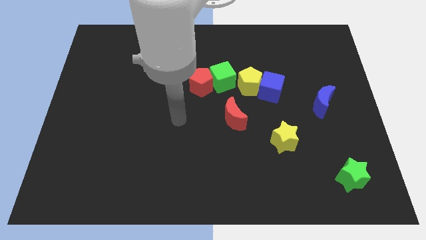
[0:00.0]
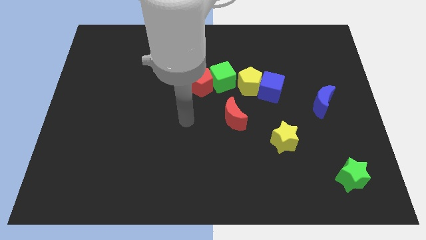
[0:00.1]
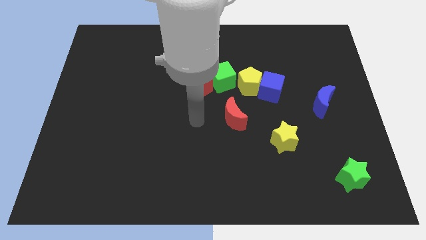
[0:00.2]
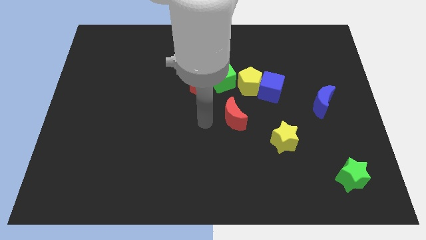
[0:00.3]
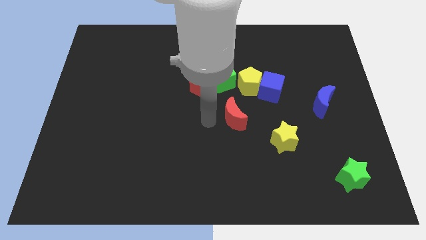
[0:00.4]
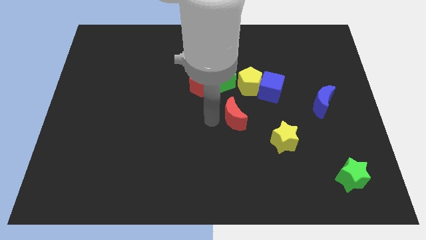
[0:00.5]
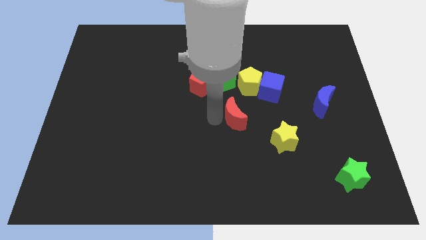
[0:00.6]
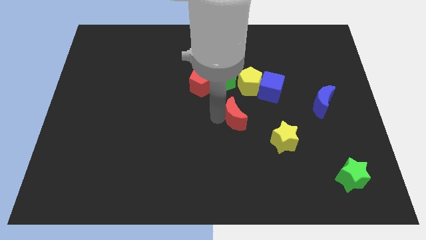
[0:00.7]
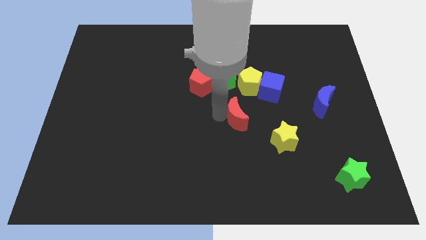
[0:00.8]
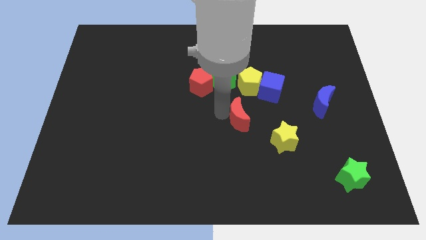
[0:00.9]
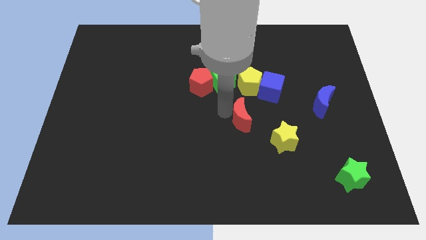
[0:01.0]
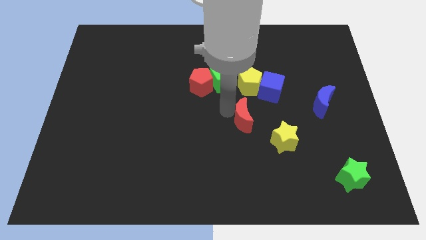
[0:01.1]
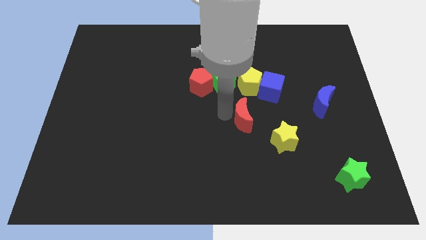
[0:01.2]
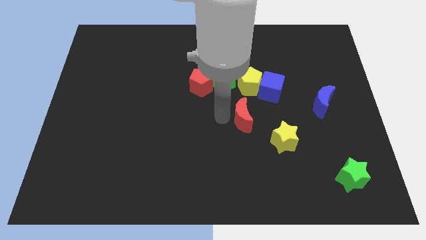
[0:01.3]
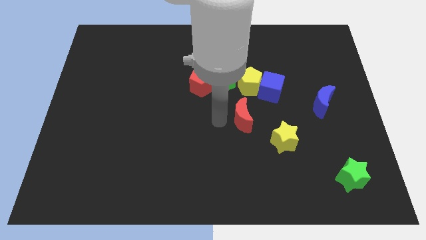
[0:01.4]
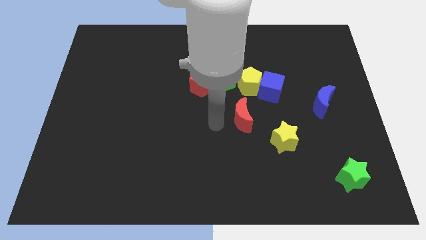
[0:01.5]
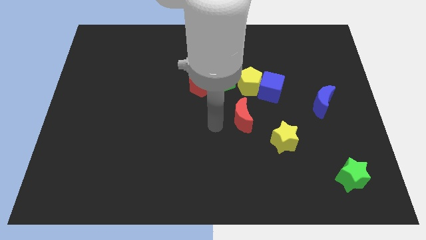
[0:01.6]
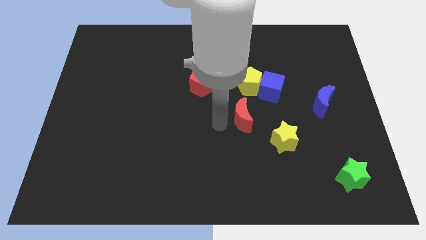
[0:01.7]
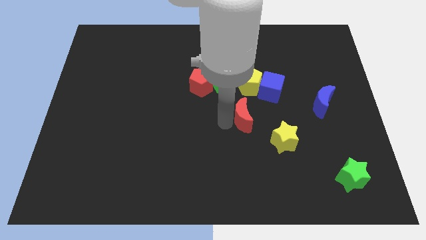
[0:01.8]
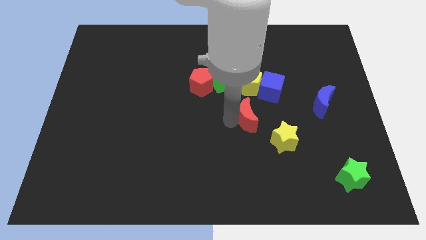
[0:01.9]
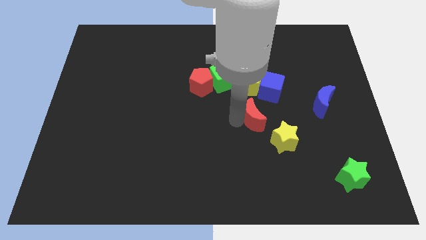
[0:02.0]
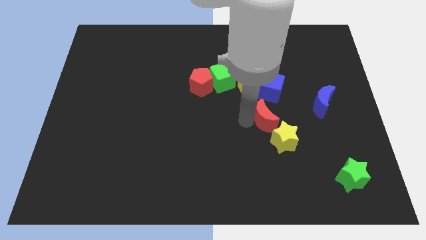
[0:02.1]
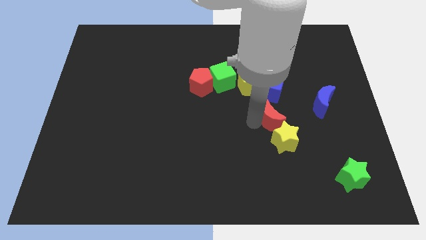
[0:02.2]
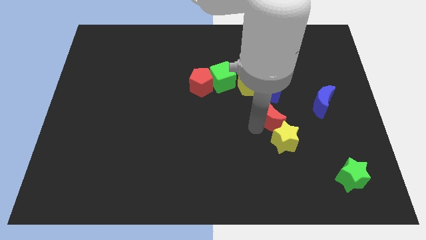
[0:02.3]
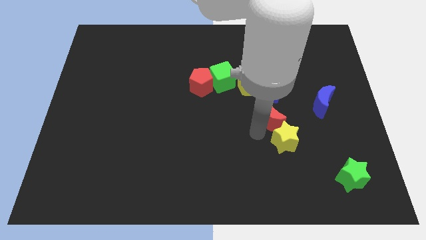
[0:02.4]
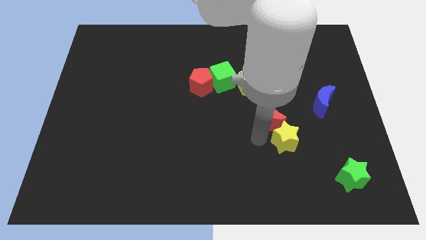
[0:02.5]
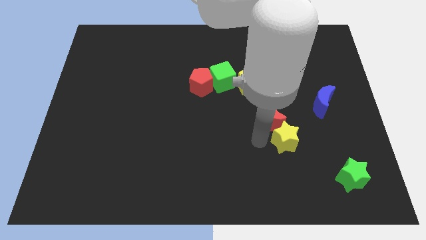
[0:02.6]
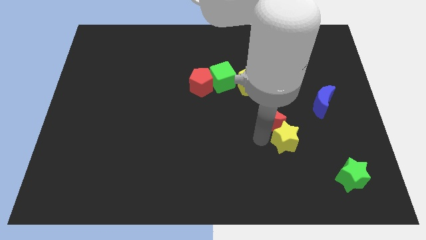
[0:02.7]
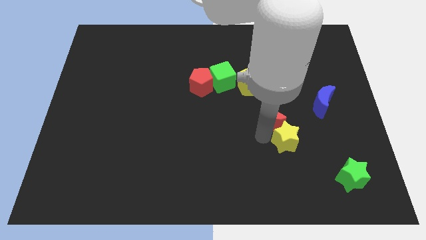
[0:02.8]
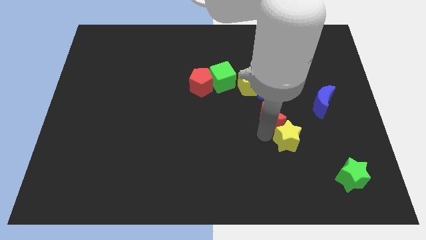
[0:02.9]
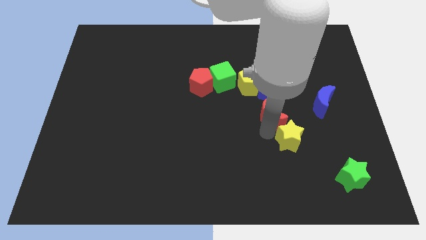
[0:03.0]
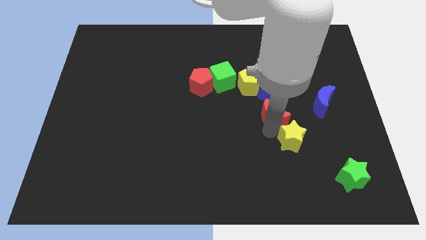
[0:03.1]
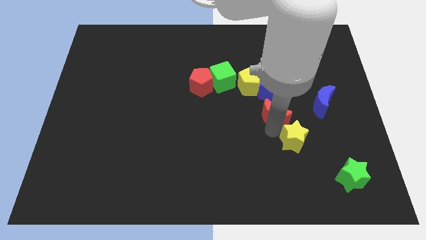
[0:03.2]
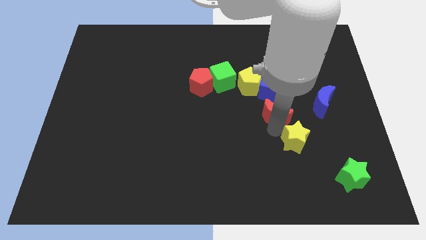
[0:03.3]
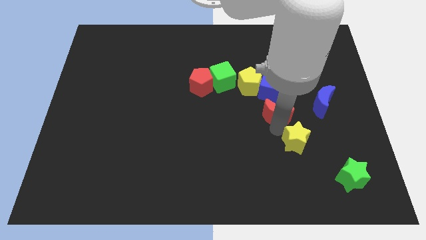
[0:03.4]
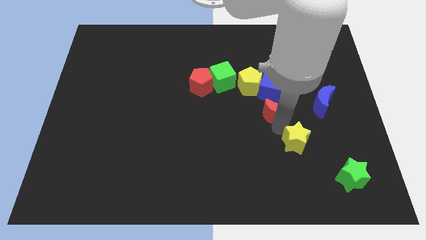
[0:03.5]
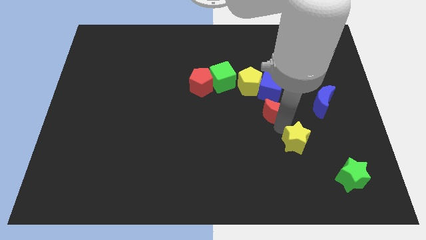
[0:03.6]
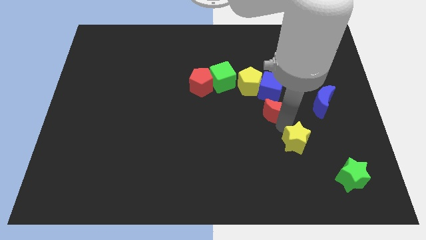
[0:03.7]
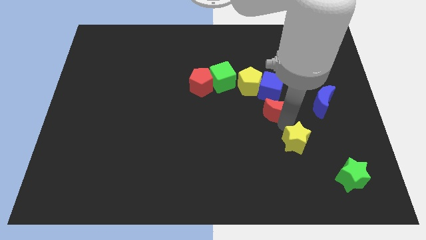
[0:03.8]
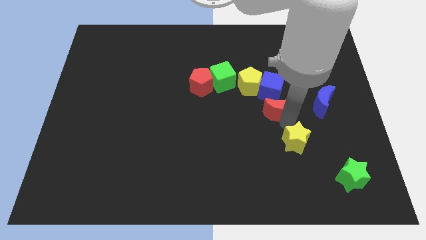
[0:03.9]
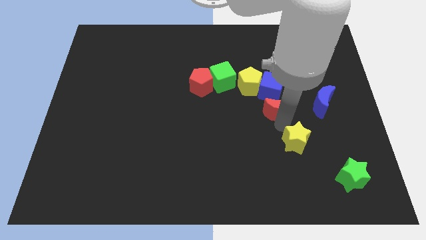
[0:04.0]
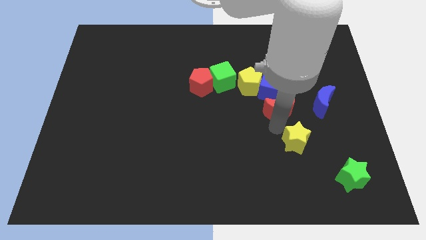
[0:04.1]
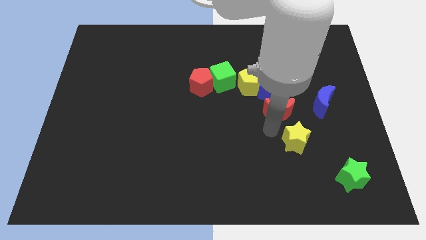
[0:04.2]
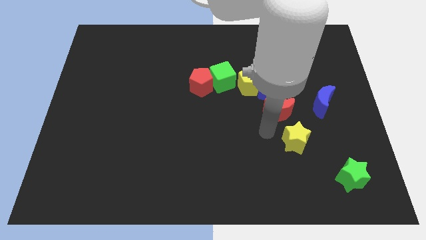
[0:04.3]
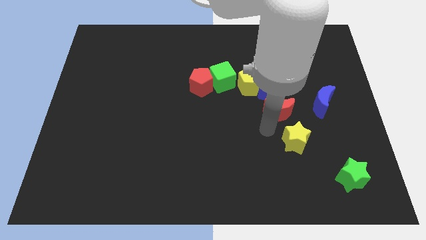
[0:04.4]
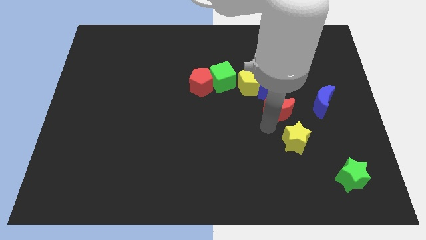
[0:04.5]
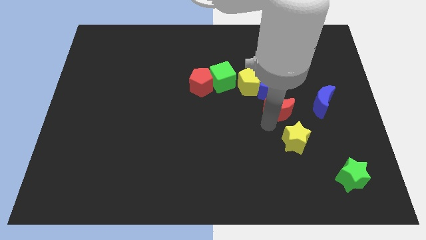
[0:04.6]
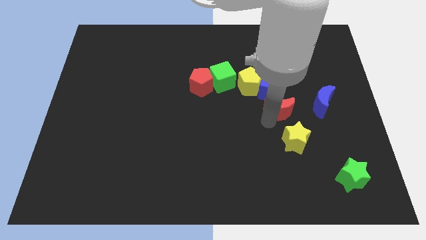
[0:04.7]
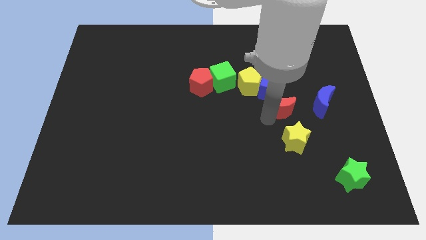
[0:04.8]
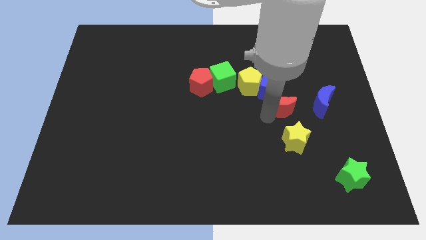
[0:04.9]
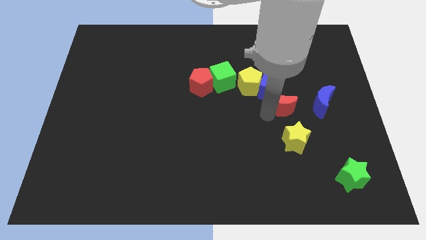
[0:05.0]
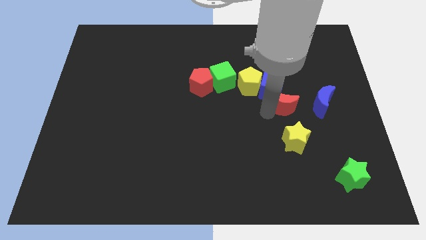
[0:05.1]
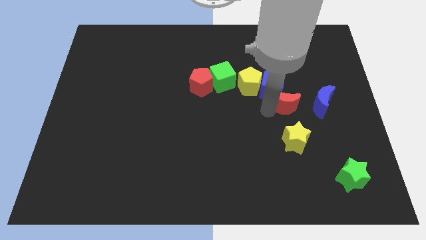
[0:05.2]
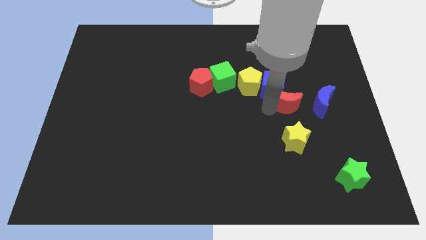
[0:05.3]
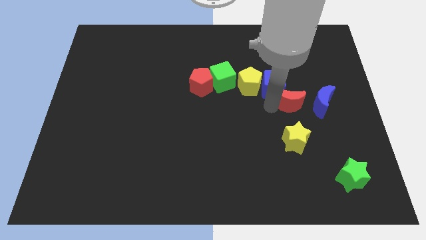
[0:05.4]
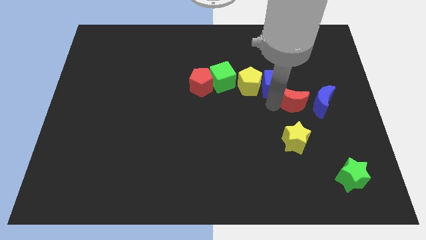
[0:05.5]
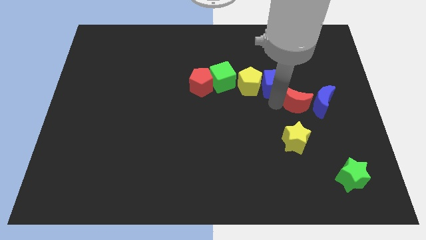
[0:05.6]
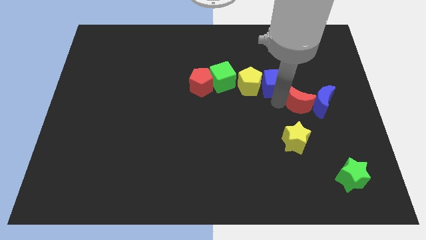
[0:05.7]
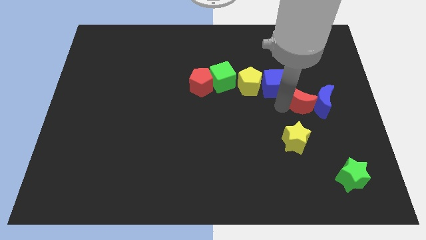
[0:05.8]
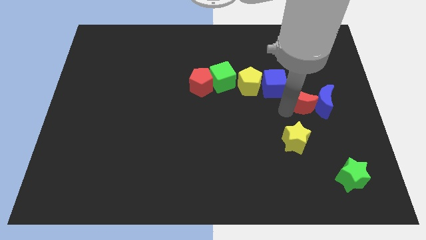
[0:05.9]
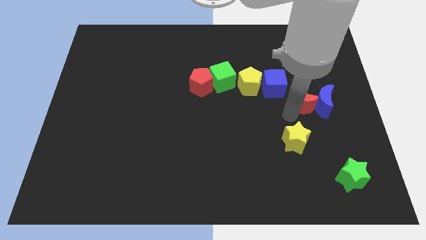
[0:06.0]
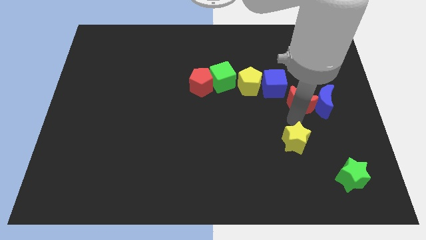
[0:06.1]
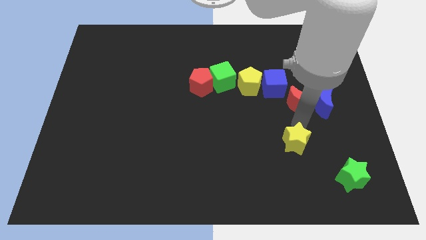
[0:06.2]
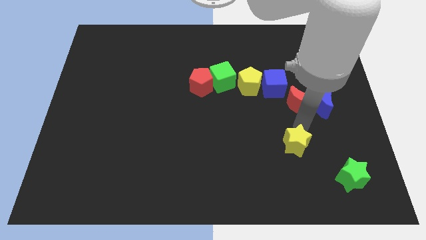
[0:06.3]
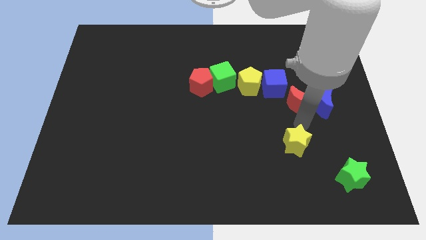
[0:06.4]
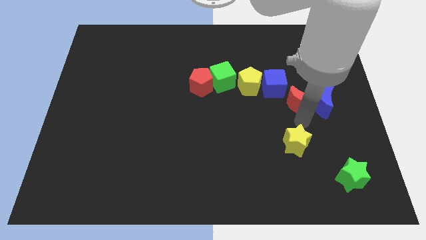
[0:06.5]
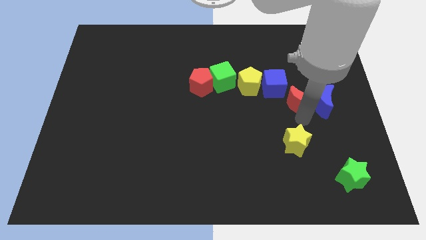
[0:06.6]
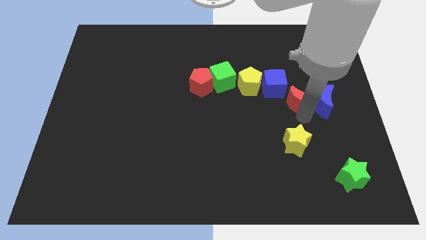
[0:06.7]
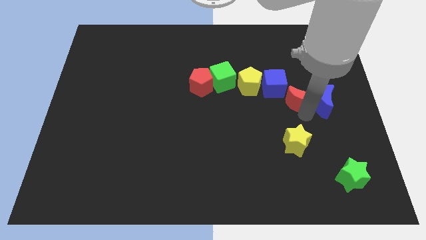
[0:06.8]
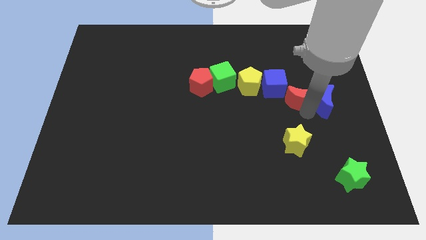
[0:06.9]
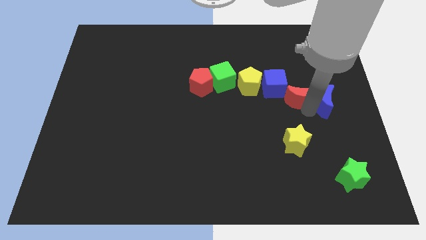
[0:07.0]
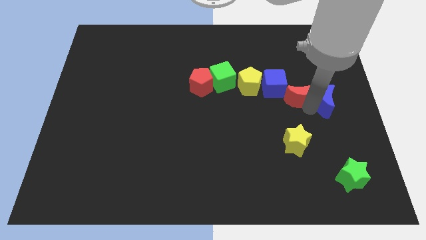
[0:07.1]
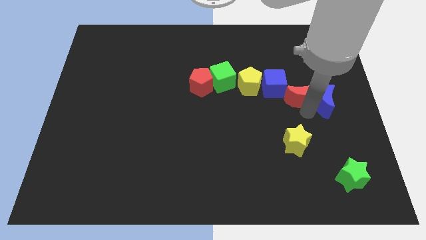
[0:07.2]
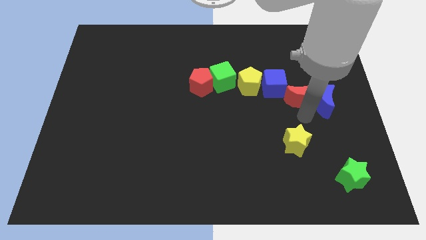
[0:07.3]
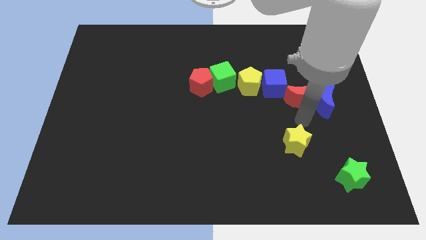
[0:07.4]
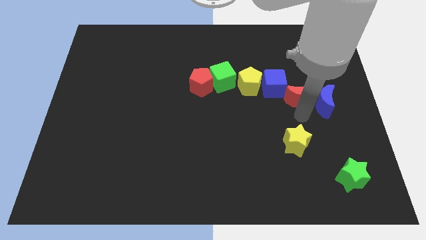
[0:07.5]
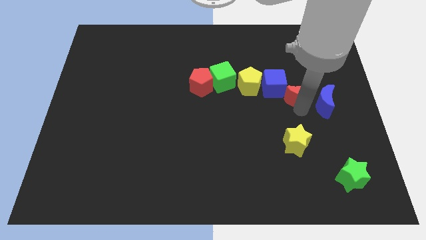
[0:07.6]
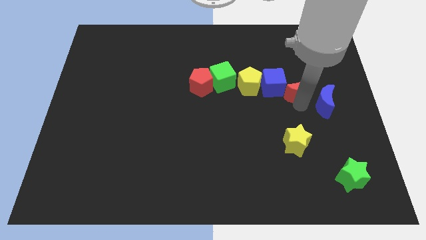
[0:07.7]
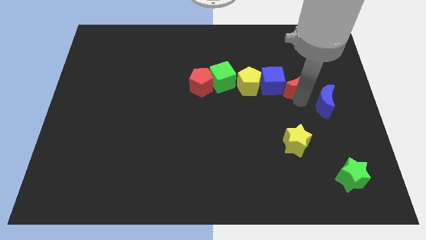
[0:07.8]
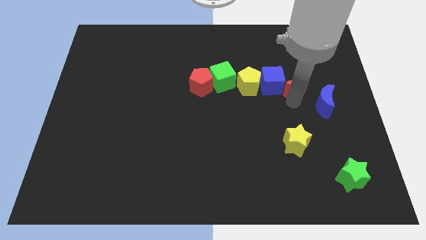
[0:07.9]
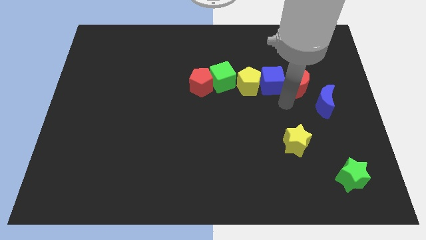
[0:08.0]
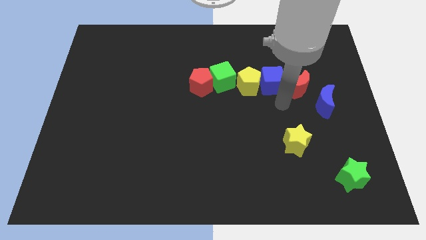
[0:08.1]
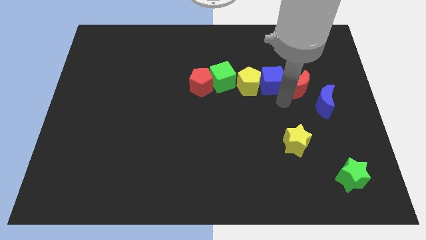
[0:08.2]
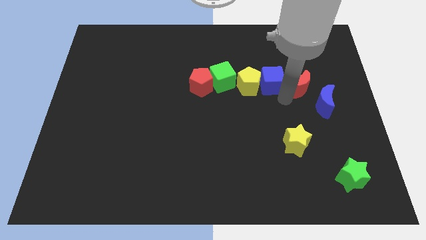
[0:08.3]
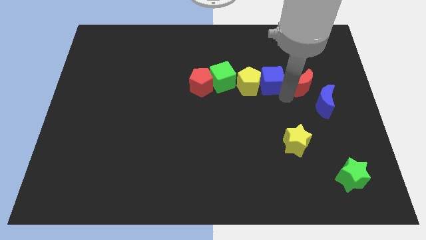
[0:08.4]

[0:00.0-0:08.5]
push the red moon to the top of the blue moon
